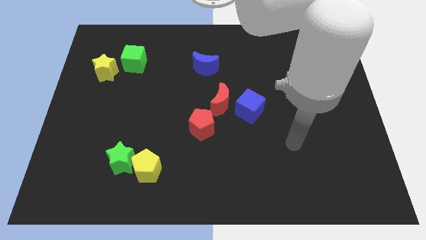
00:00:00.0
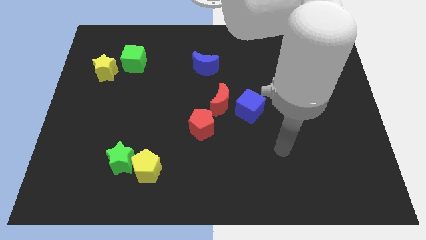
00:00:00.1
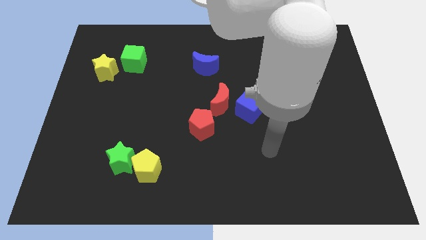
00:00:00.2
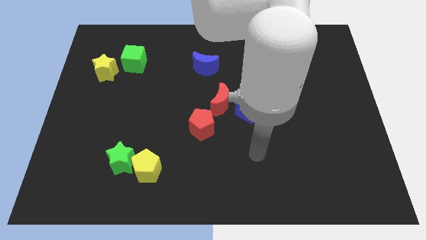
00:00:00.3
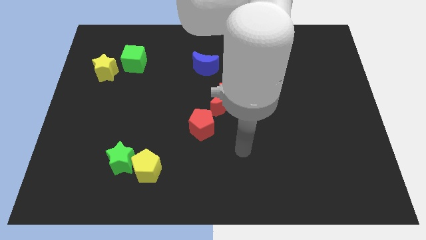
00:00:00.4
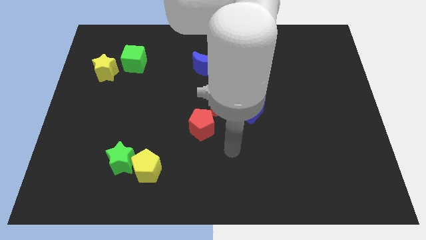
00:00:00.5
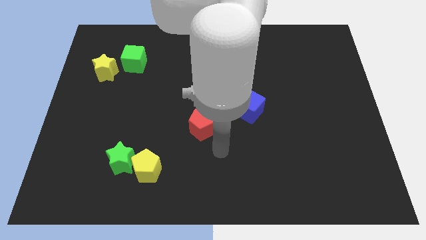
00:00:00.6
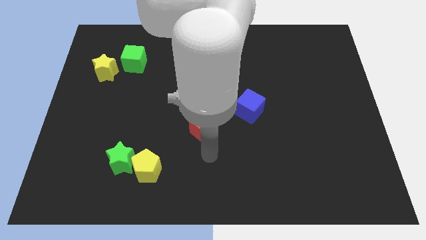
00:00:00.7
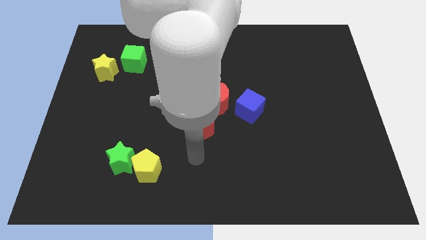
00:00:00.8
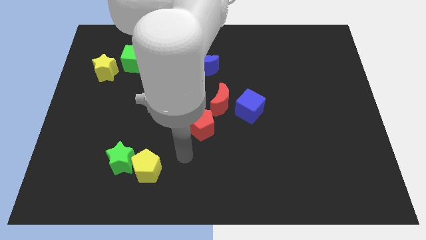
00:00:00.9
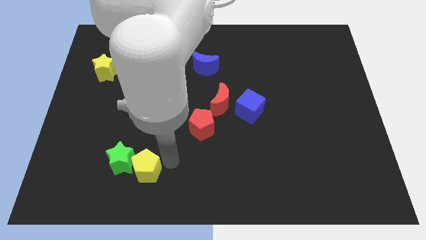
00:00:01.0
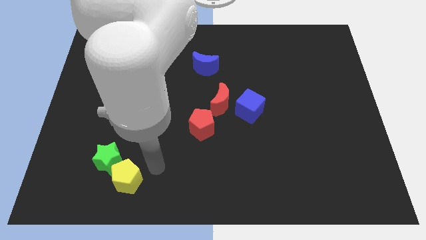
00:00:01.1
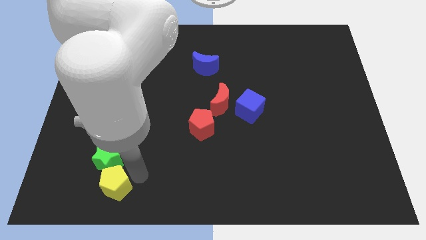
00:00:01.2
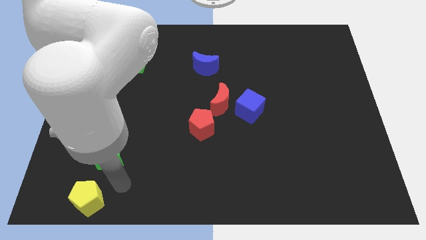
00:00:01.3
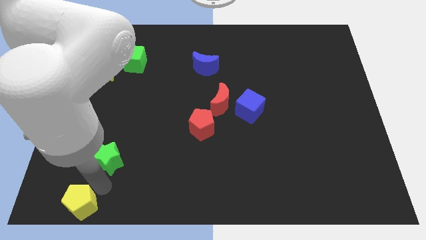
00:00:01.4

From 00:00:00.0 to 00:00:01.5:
pull the green star apart from the yellow pentagon

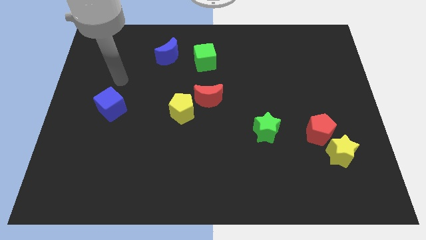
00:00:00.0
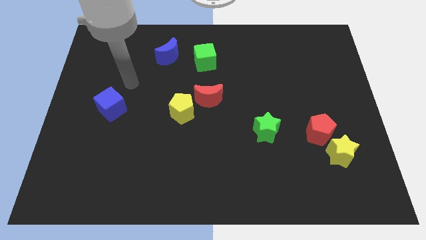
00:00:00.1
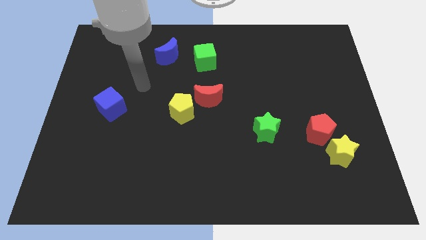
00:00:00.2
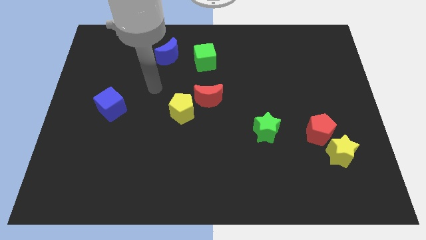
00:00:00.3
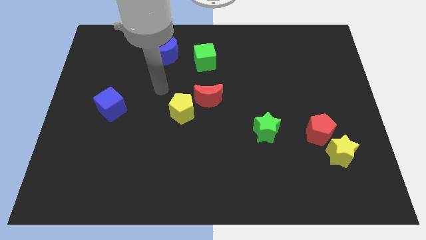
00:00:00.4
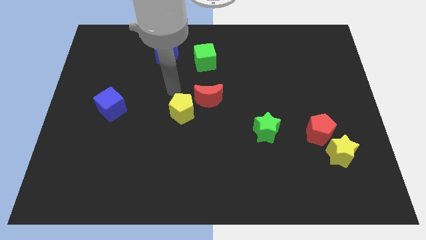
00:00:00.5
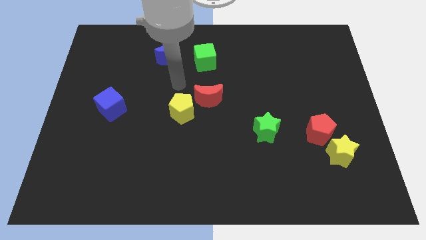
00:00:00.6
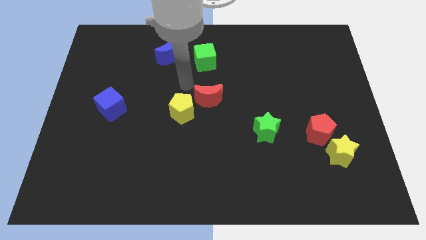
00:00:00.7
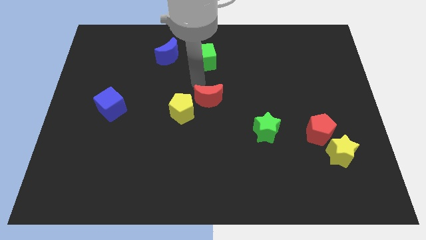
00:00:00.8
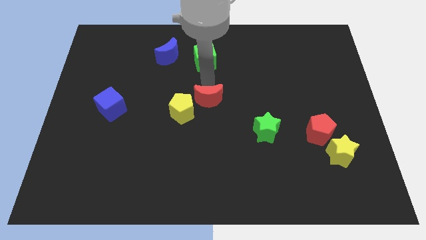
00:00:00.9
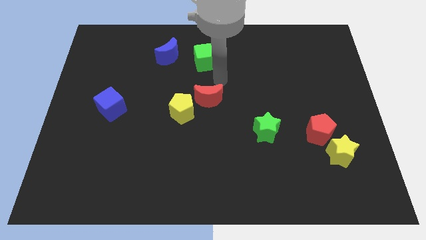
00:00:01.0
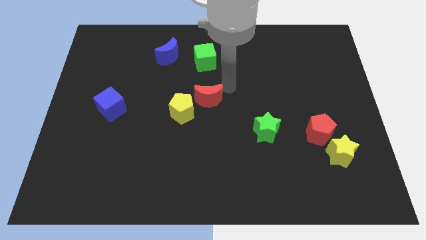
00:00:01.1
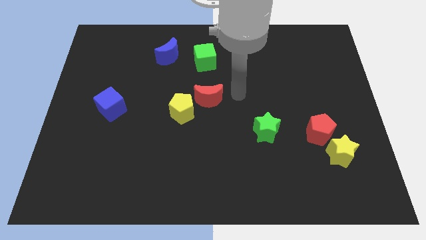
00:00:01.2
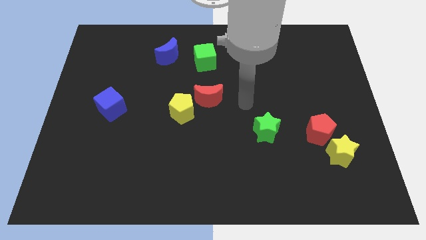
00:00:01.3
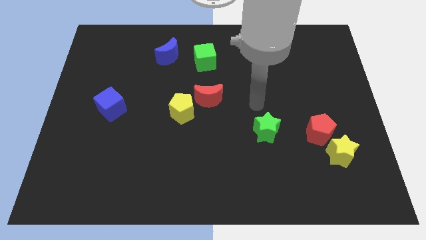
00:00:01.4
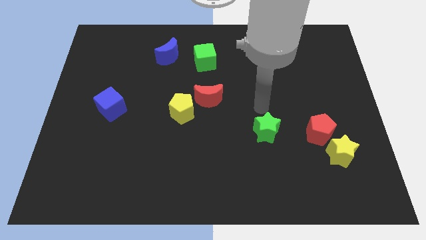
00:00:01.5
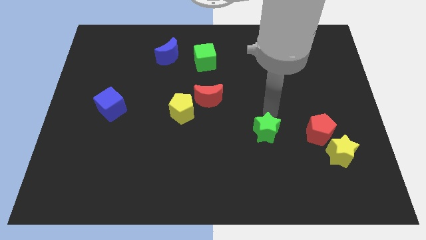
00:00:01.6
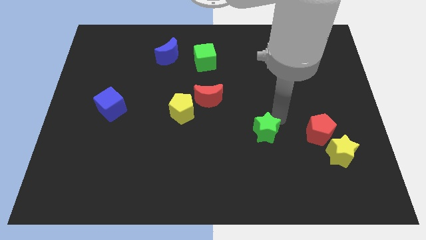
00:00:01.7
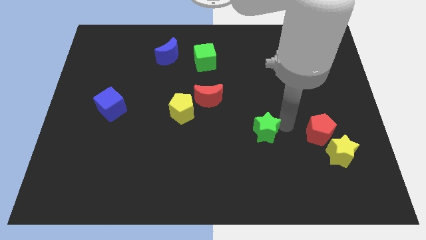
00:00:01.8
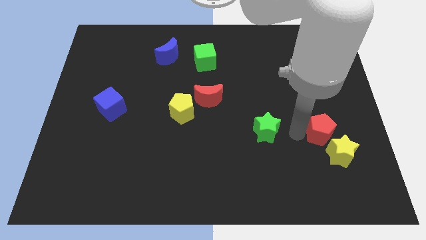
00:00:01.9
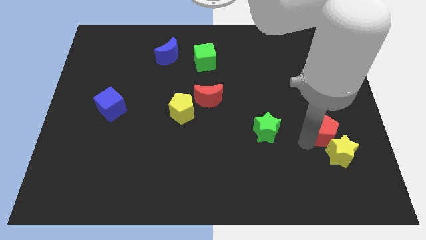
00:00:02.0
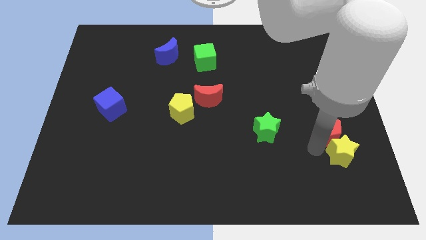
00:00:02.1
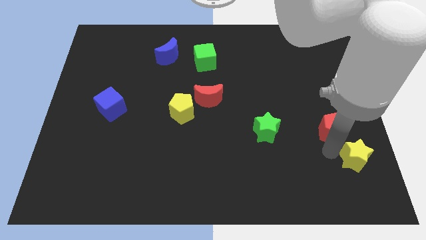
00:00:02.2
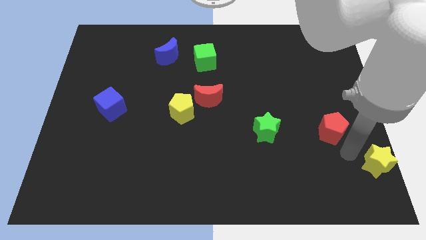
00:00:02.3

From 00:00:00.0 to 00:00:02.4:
move the red pentagon away from the yellow star

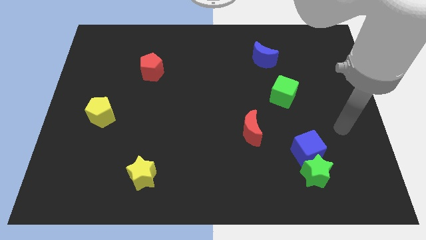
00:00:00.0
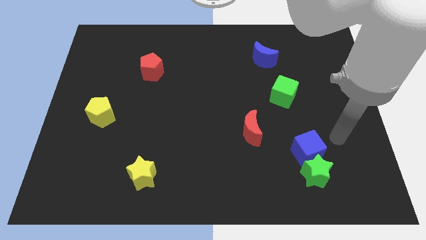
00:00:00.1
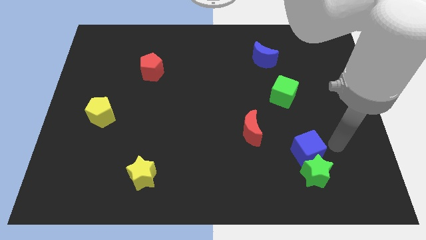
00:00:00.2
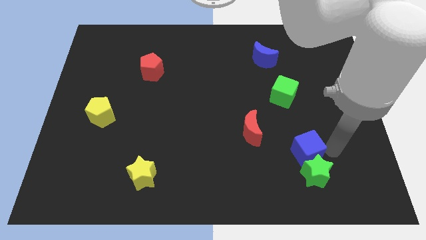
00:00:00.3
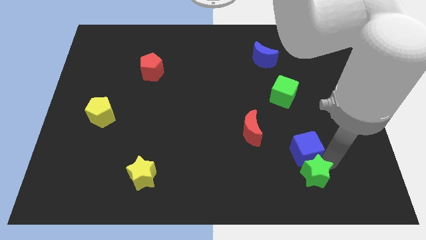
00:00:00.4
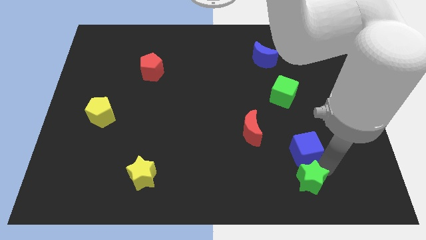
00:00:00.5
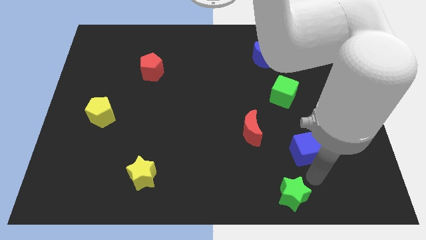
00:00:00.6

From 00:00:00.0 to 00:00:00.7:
pull the blue cube apart from the green star

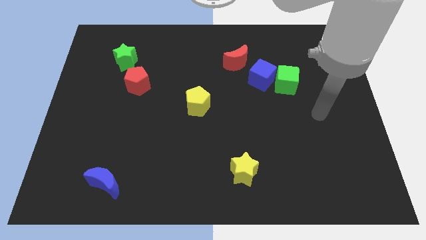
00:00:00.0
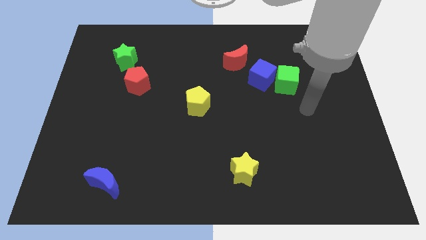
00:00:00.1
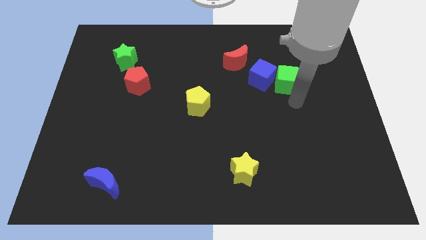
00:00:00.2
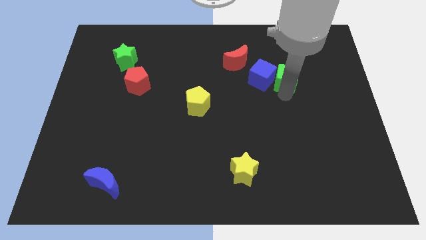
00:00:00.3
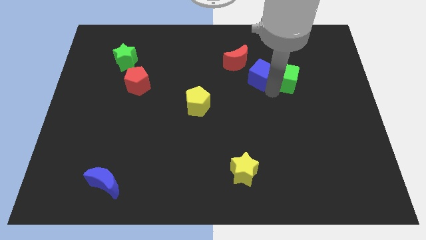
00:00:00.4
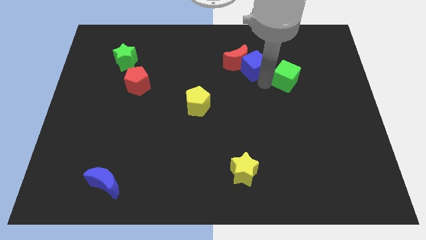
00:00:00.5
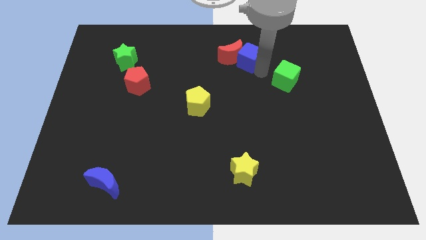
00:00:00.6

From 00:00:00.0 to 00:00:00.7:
separate the green cube from the blue cube

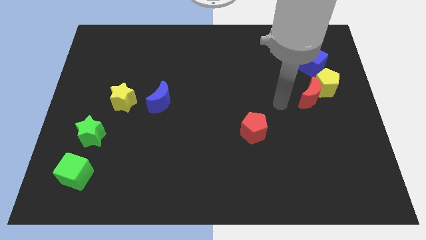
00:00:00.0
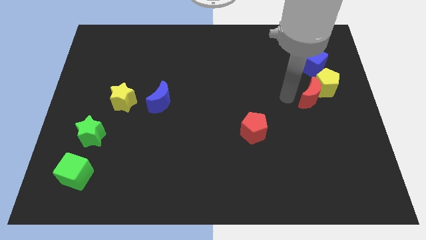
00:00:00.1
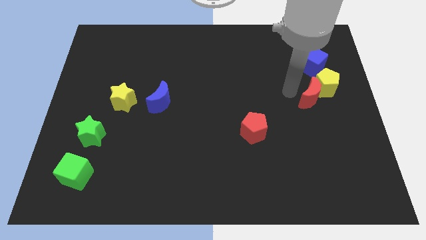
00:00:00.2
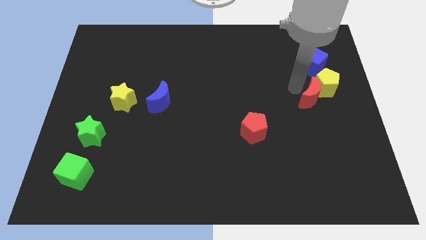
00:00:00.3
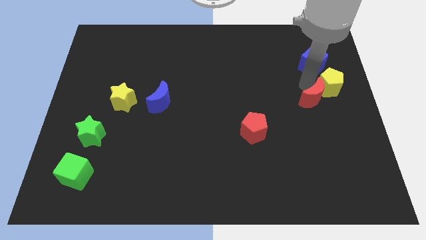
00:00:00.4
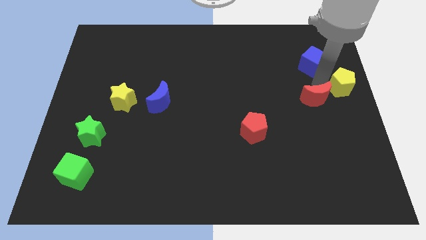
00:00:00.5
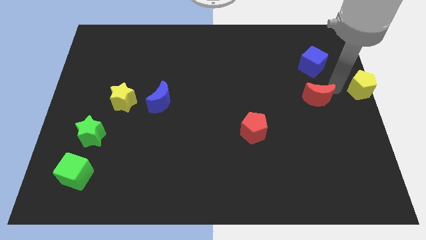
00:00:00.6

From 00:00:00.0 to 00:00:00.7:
pull the red moon apart from the yellow pentagon

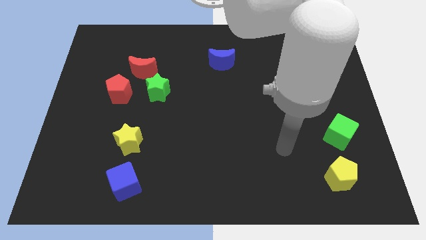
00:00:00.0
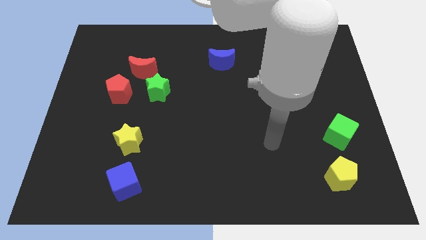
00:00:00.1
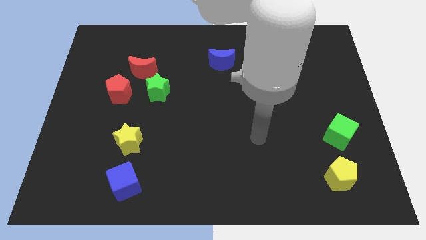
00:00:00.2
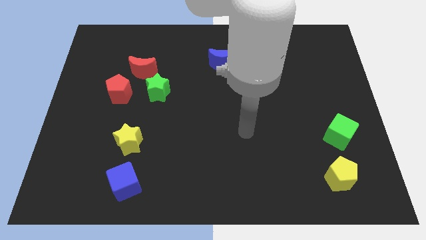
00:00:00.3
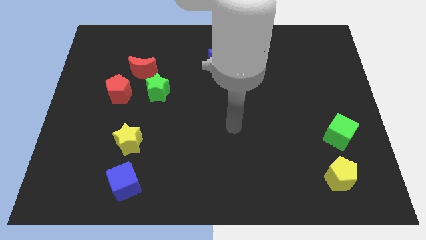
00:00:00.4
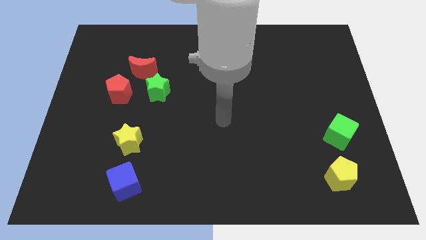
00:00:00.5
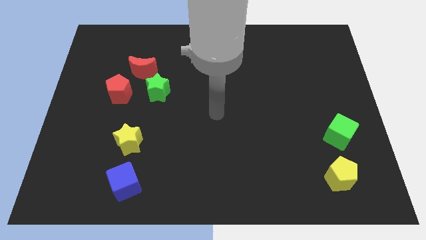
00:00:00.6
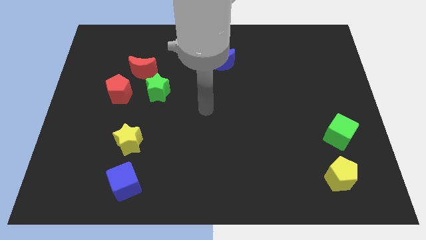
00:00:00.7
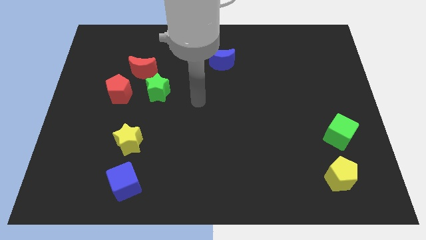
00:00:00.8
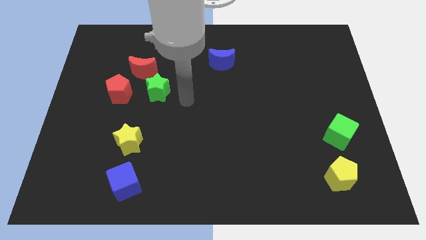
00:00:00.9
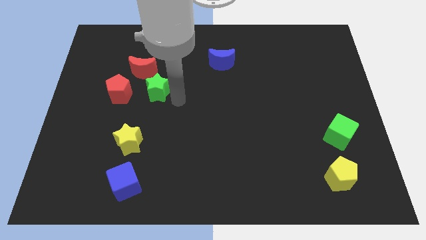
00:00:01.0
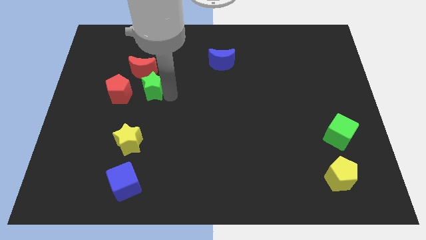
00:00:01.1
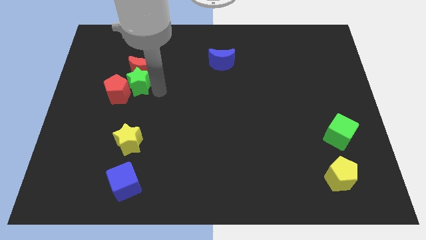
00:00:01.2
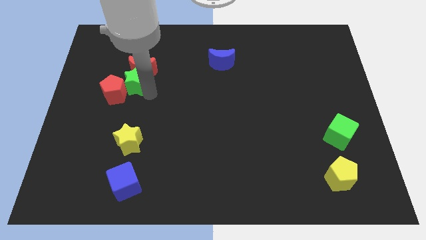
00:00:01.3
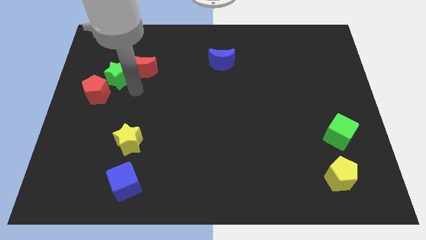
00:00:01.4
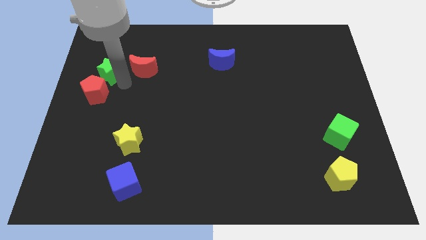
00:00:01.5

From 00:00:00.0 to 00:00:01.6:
move the red moon away from the green star and red pentagon

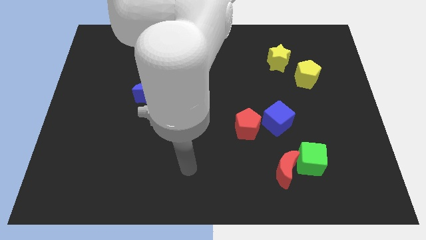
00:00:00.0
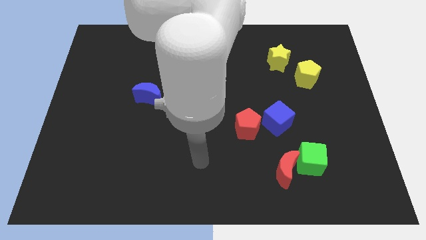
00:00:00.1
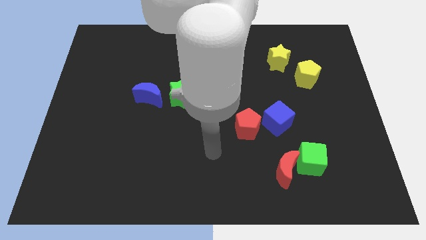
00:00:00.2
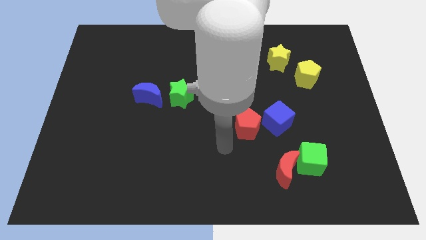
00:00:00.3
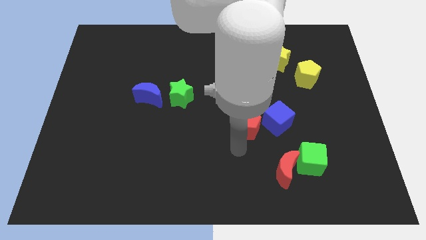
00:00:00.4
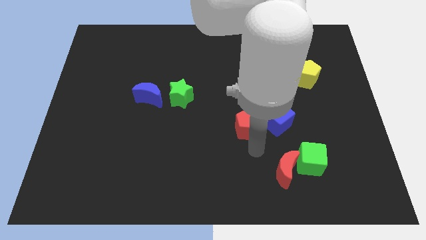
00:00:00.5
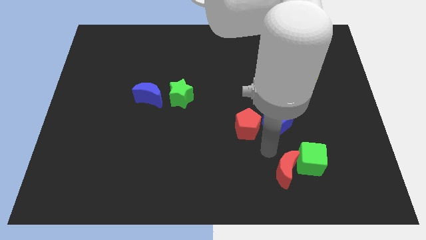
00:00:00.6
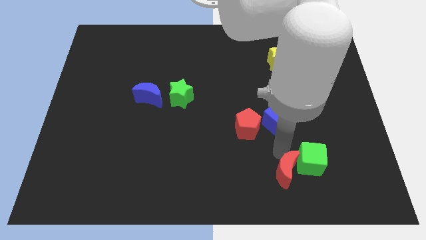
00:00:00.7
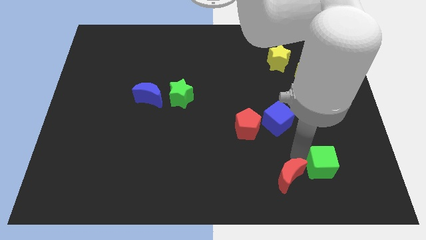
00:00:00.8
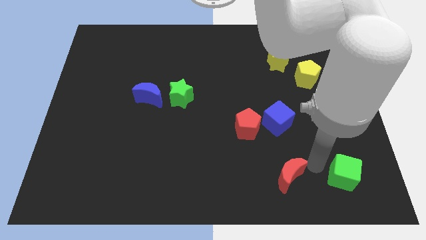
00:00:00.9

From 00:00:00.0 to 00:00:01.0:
separate the red moon from the green cube

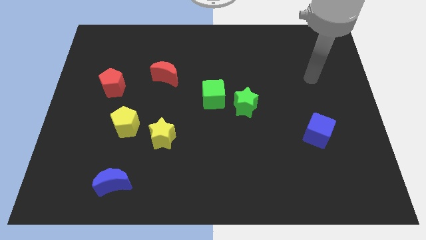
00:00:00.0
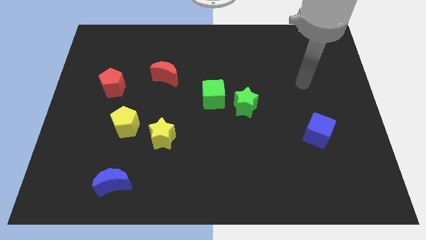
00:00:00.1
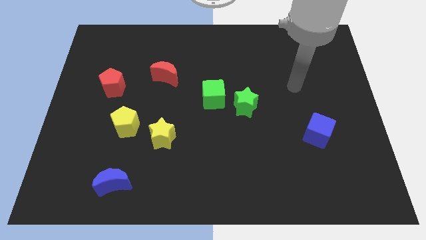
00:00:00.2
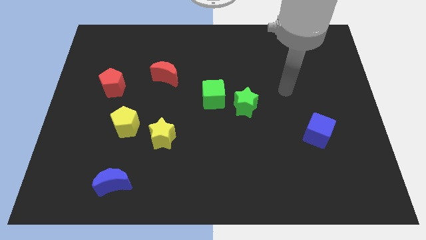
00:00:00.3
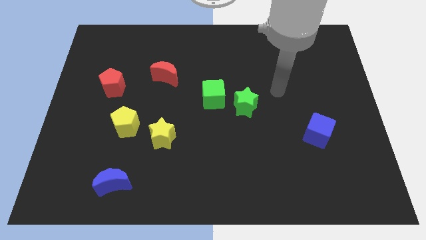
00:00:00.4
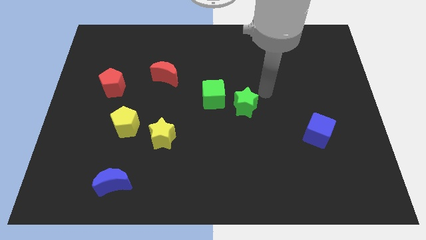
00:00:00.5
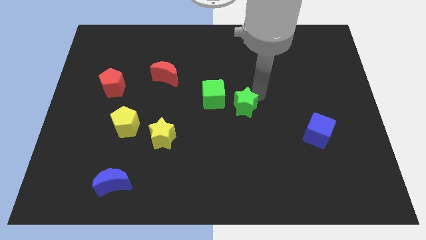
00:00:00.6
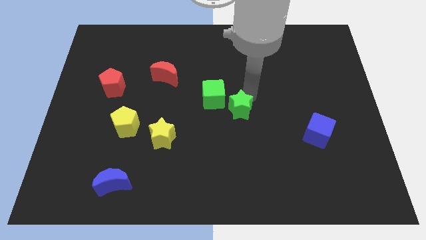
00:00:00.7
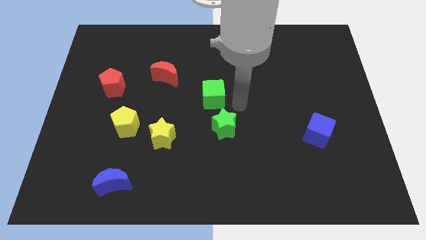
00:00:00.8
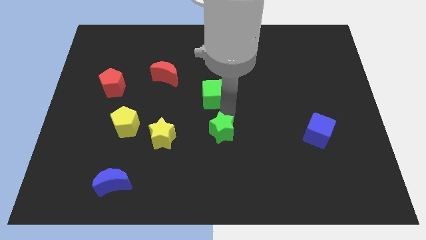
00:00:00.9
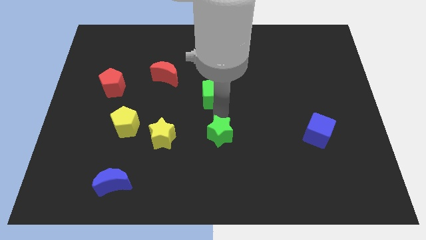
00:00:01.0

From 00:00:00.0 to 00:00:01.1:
pull the green cube apart from the green star
